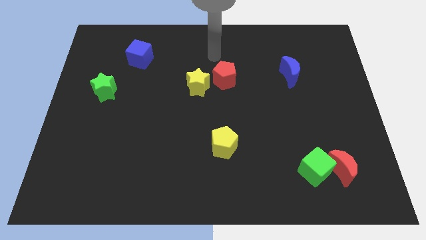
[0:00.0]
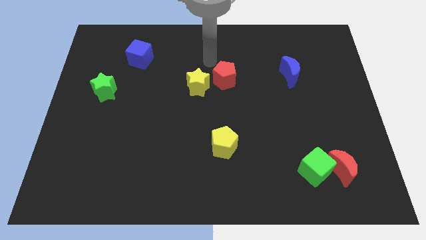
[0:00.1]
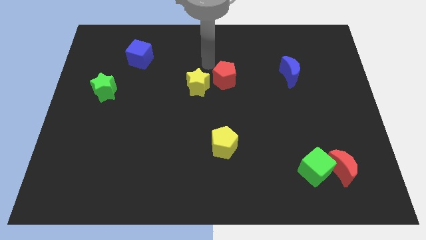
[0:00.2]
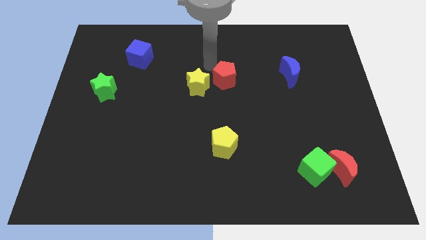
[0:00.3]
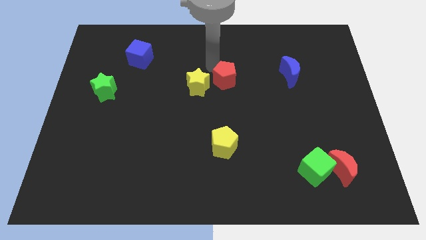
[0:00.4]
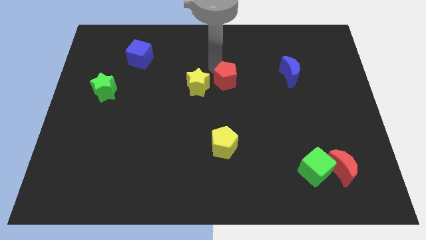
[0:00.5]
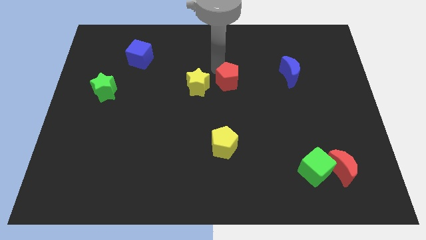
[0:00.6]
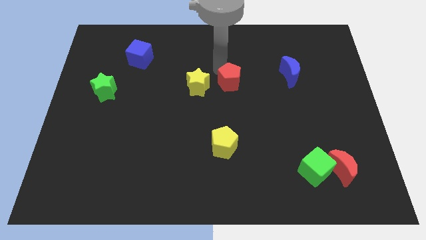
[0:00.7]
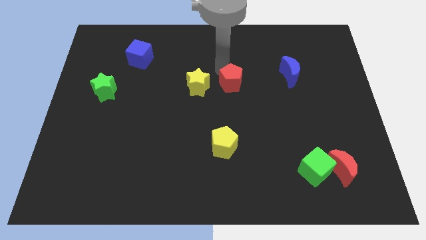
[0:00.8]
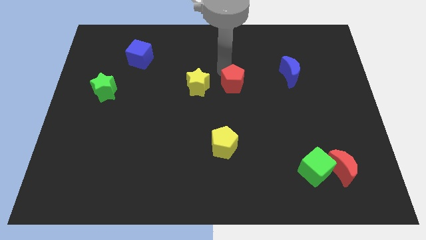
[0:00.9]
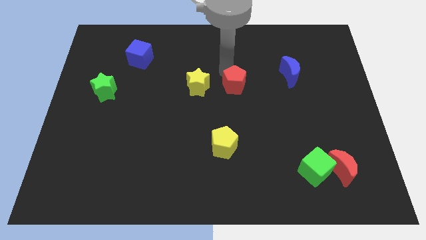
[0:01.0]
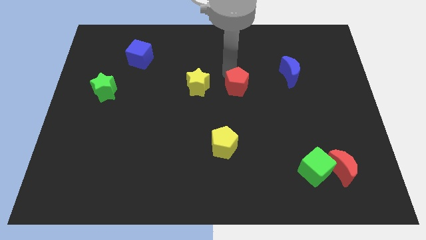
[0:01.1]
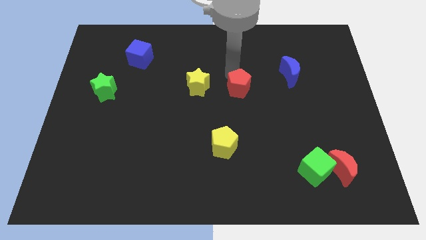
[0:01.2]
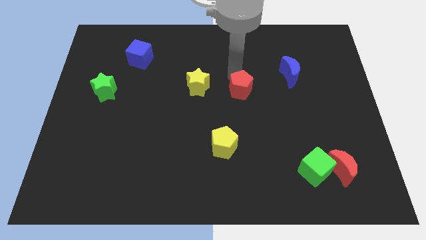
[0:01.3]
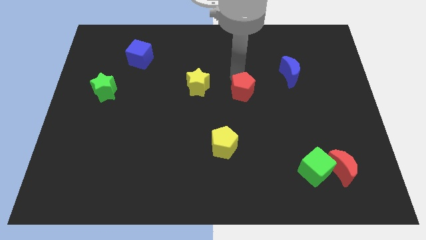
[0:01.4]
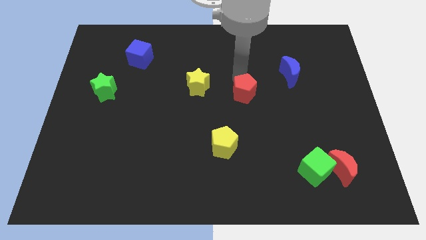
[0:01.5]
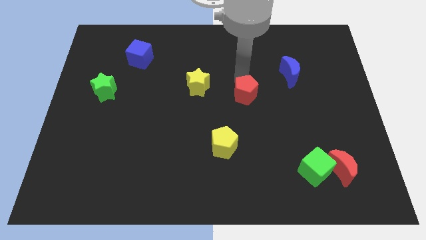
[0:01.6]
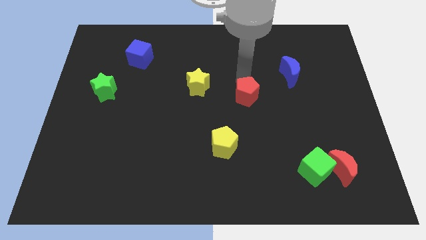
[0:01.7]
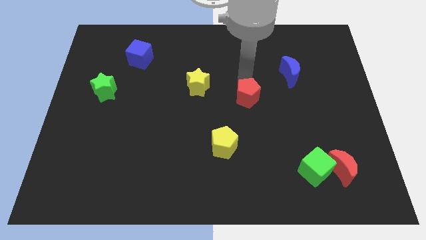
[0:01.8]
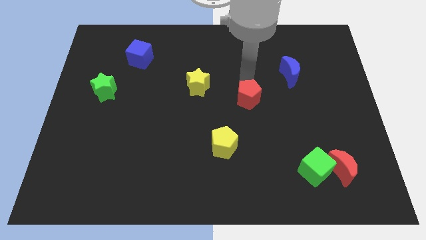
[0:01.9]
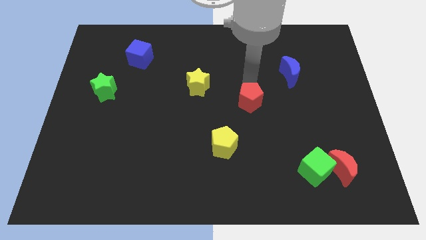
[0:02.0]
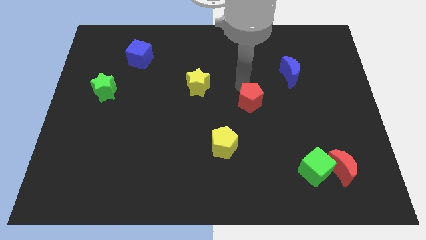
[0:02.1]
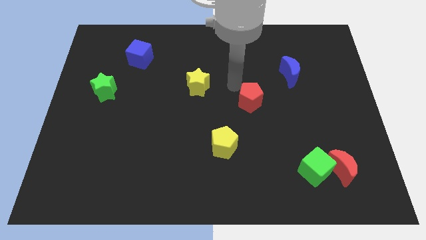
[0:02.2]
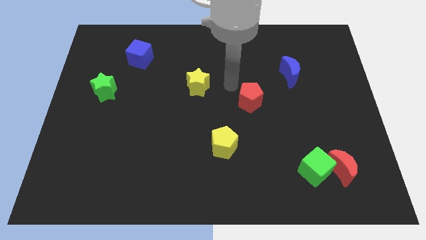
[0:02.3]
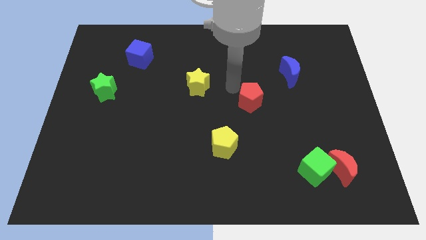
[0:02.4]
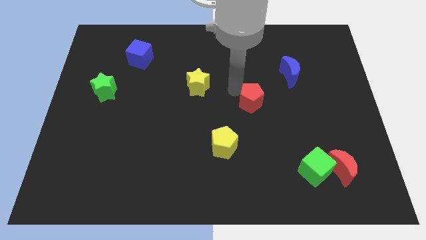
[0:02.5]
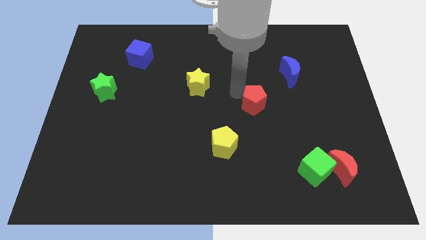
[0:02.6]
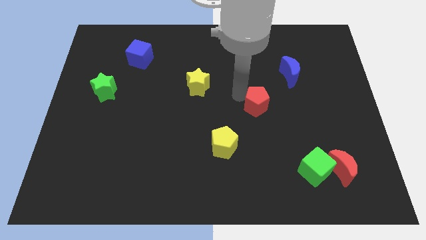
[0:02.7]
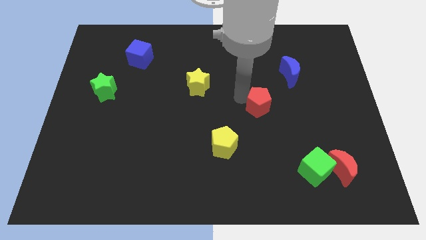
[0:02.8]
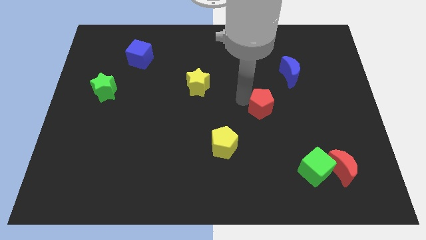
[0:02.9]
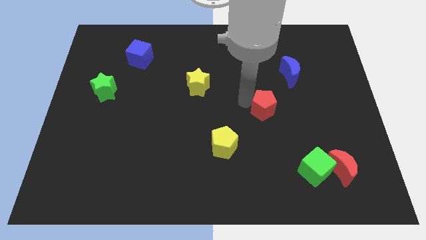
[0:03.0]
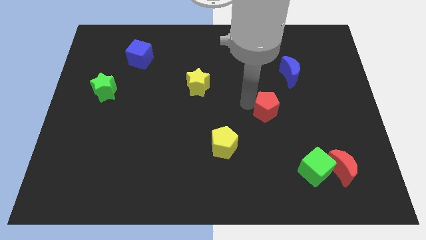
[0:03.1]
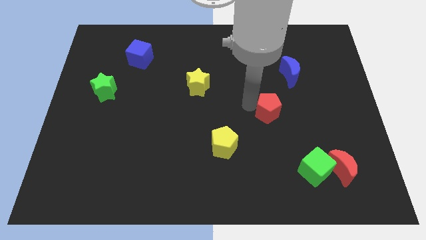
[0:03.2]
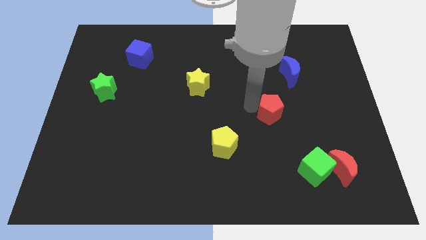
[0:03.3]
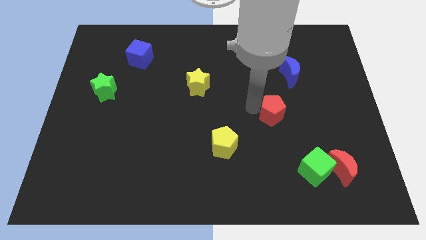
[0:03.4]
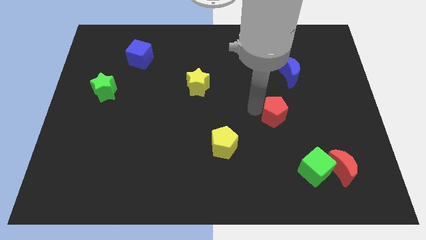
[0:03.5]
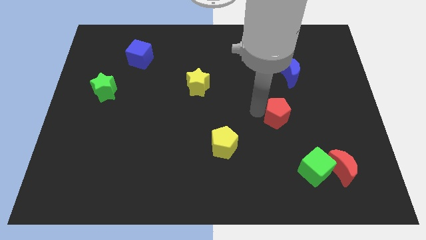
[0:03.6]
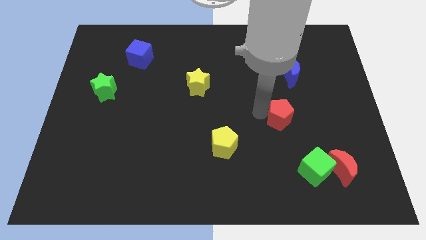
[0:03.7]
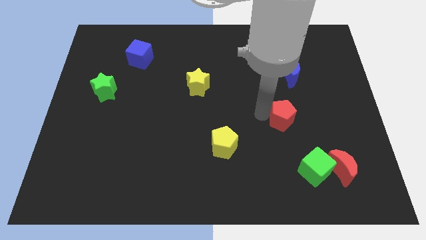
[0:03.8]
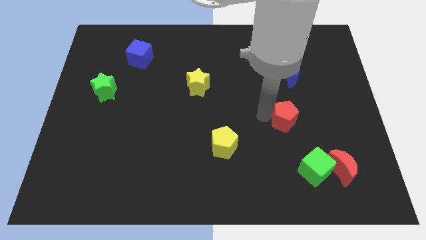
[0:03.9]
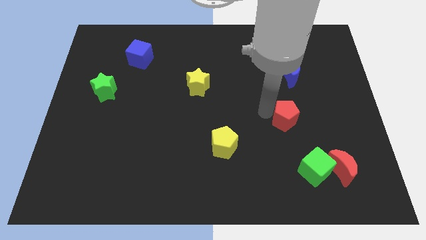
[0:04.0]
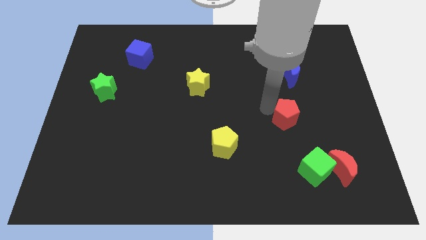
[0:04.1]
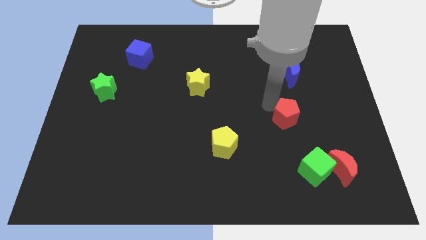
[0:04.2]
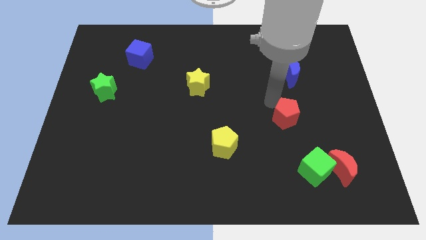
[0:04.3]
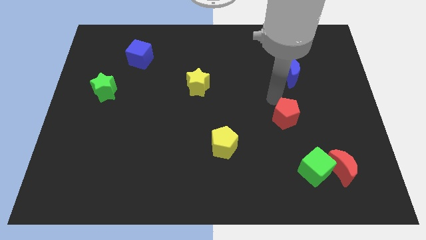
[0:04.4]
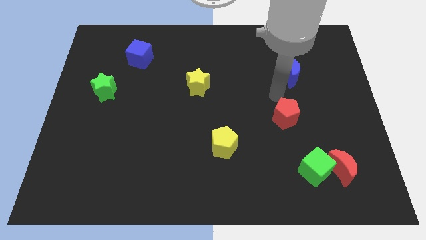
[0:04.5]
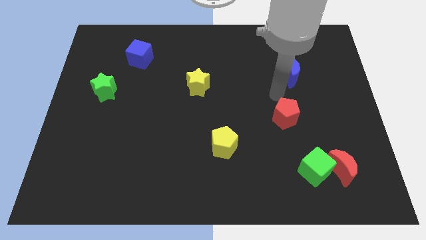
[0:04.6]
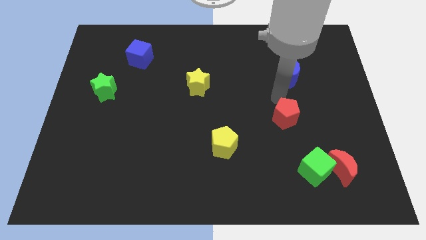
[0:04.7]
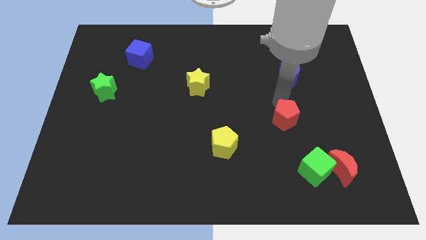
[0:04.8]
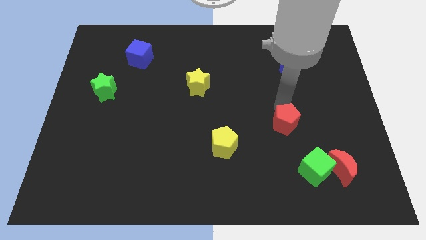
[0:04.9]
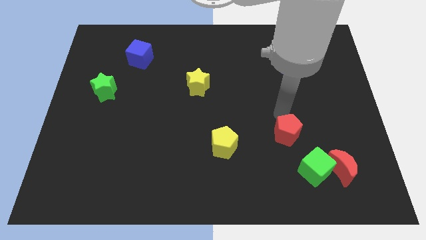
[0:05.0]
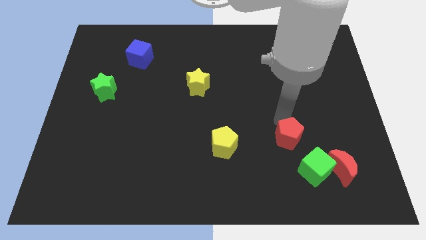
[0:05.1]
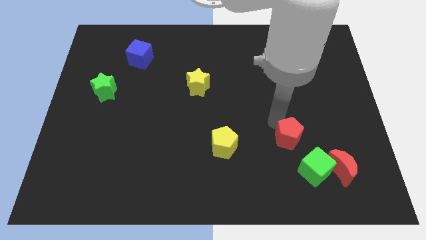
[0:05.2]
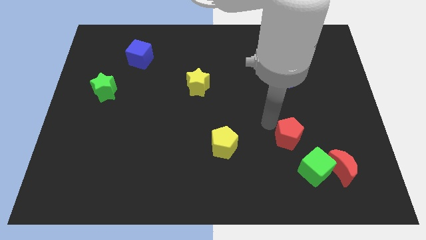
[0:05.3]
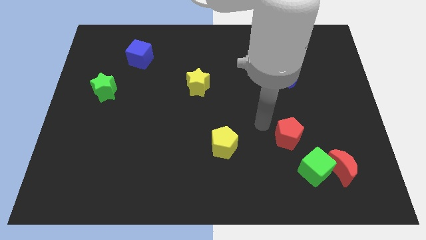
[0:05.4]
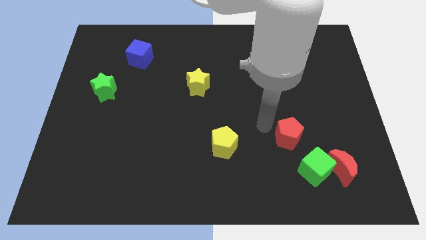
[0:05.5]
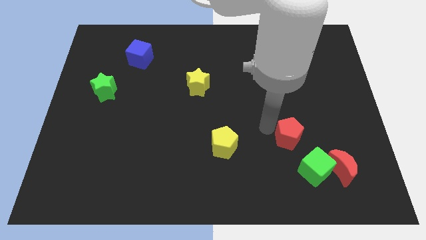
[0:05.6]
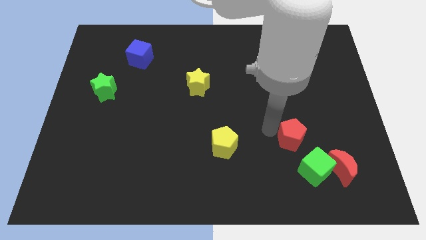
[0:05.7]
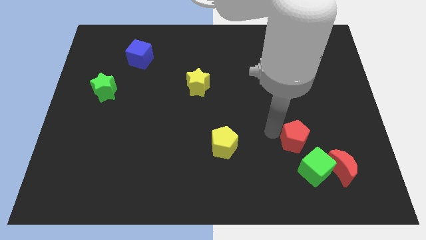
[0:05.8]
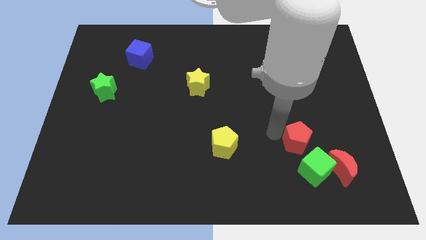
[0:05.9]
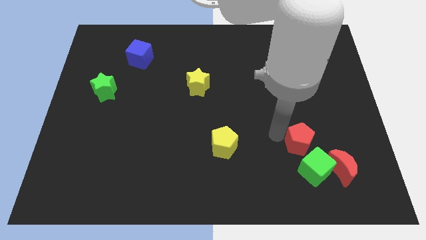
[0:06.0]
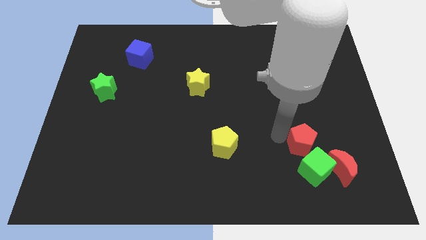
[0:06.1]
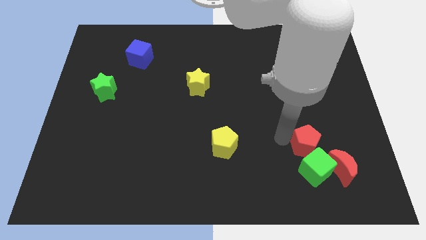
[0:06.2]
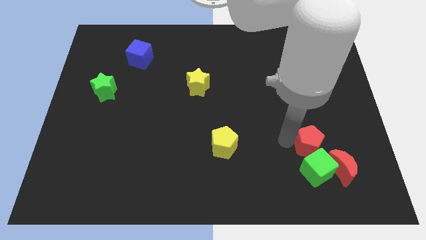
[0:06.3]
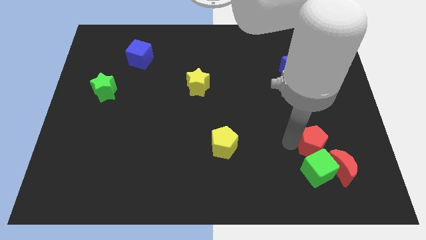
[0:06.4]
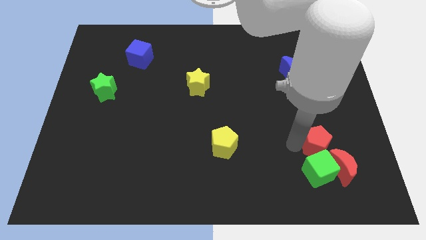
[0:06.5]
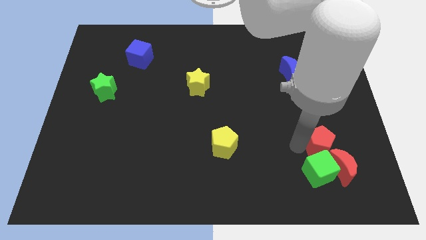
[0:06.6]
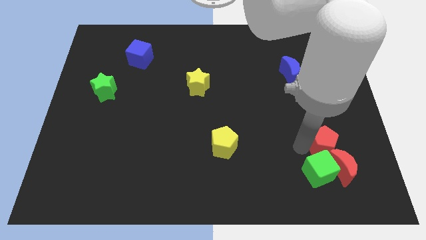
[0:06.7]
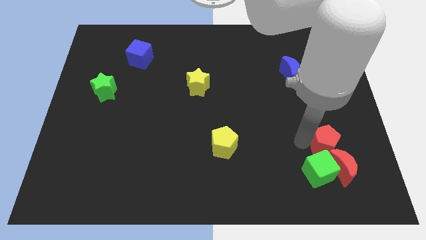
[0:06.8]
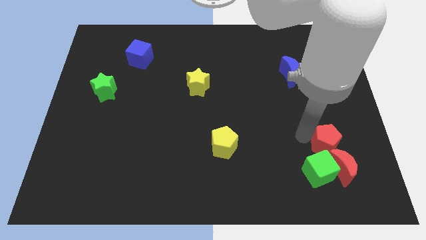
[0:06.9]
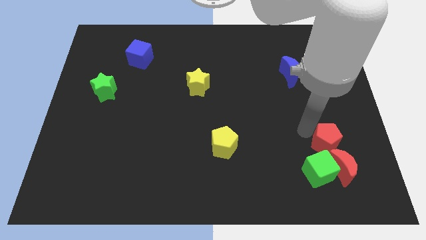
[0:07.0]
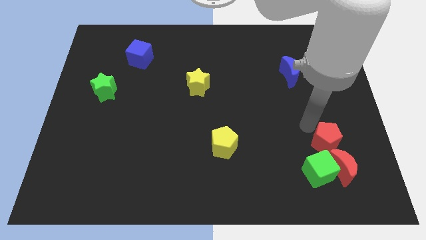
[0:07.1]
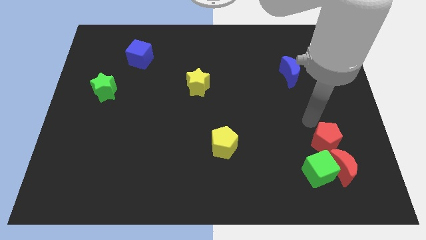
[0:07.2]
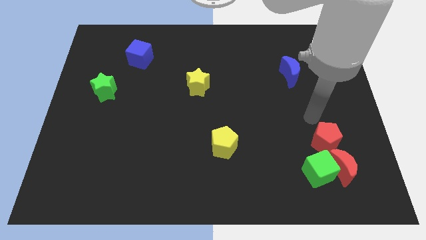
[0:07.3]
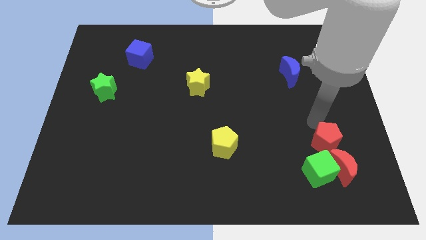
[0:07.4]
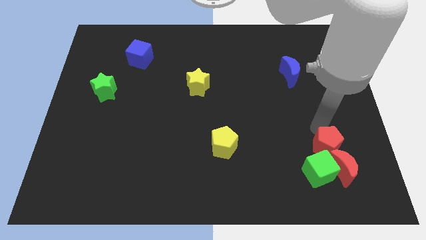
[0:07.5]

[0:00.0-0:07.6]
put the red pentagon close to the red moon

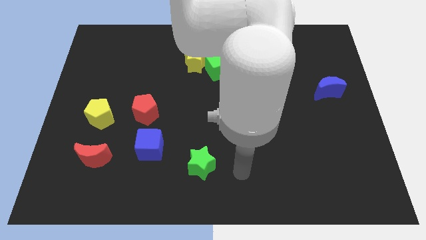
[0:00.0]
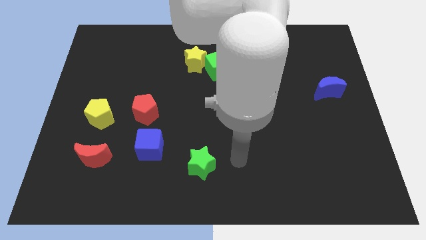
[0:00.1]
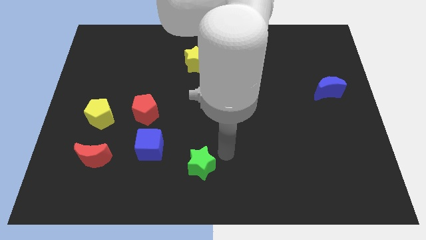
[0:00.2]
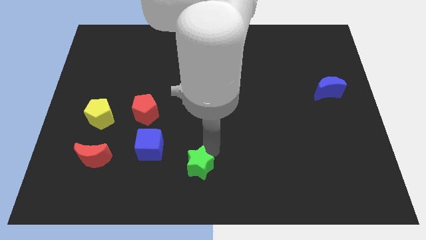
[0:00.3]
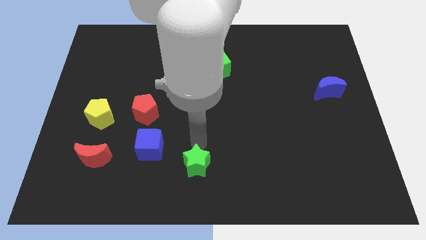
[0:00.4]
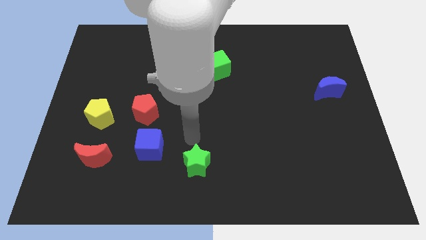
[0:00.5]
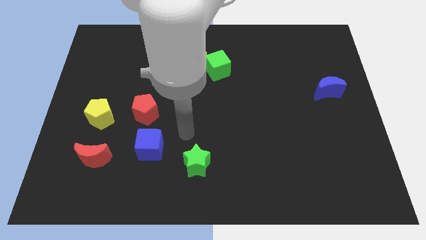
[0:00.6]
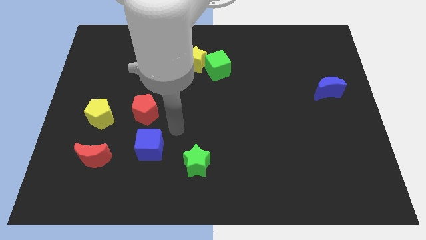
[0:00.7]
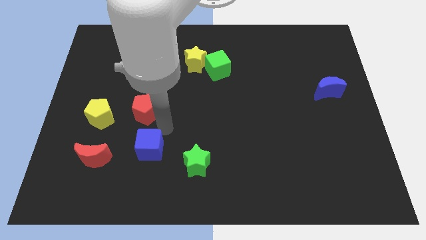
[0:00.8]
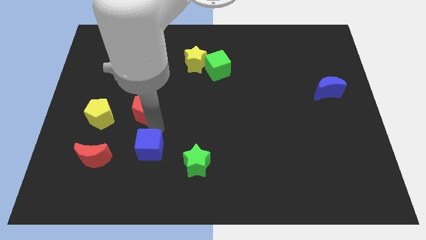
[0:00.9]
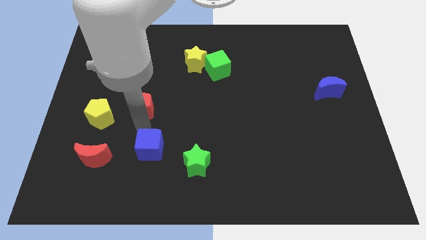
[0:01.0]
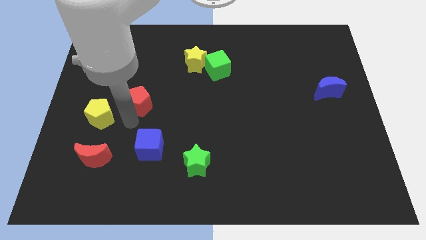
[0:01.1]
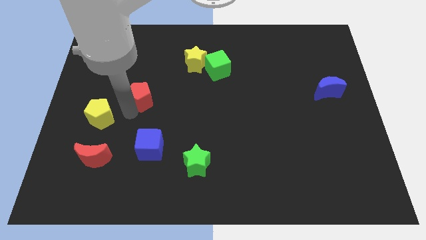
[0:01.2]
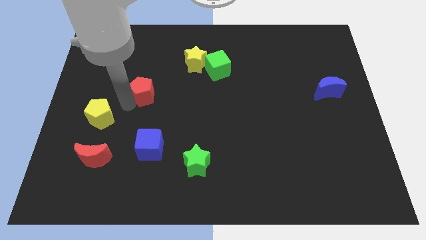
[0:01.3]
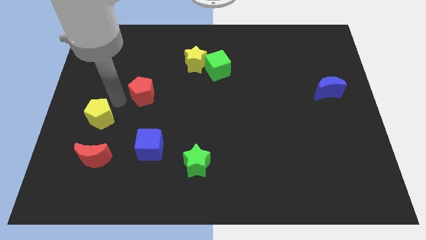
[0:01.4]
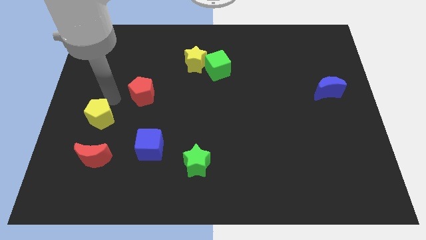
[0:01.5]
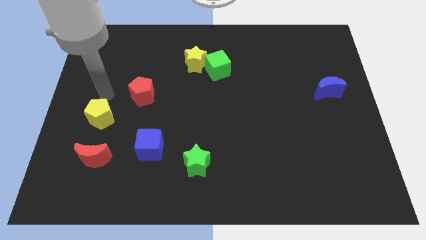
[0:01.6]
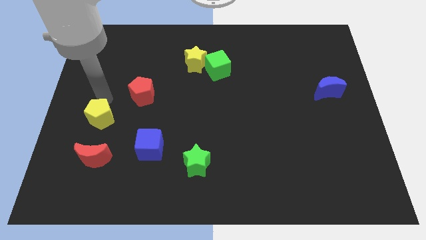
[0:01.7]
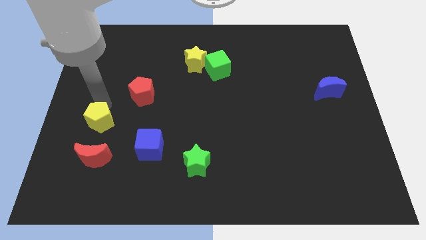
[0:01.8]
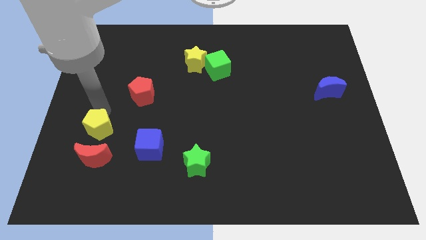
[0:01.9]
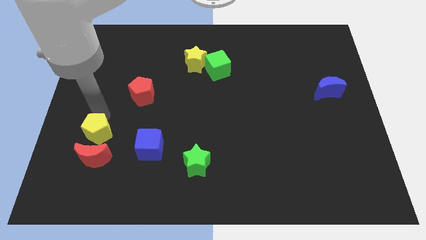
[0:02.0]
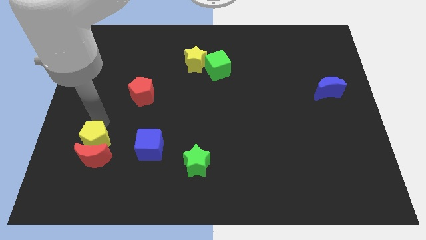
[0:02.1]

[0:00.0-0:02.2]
put the yellow pentagon to the red moon
